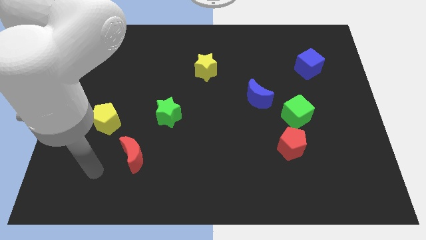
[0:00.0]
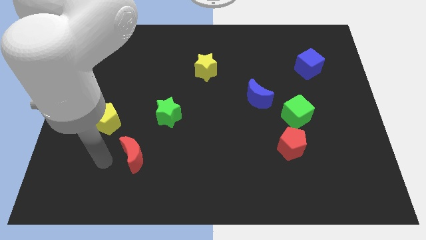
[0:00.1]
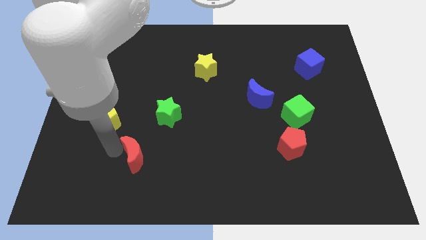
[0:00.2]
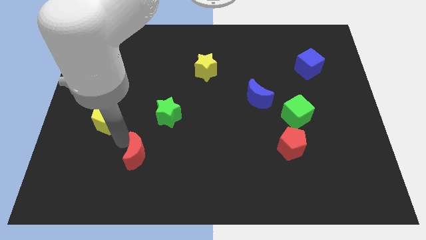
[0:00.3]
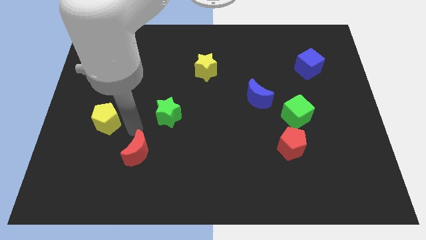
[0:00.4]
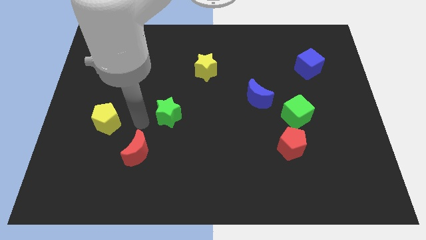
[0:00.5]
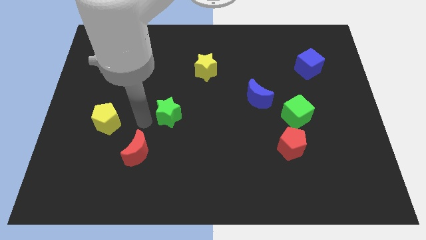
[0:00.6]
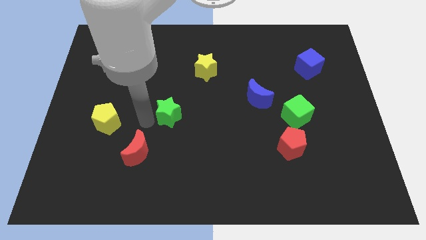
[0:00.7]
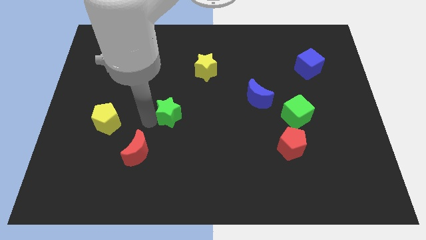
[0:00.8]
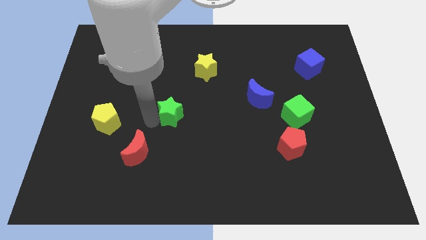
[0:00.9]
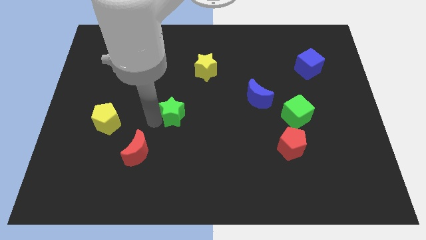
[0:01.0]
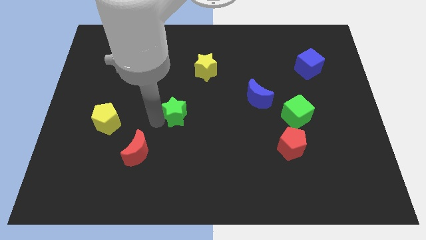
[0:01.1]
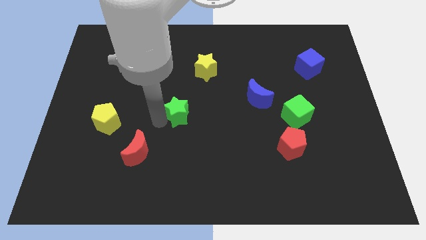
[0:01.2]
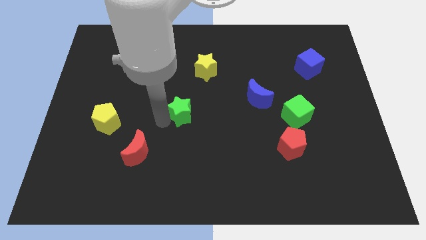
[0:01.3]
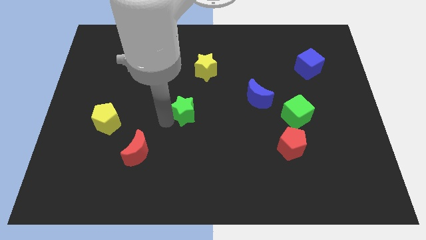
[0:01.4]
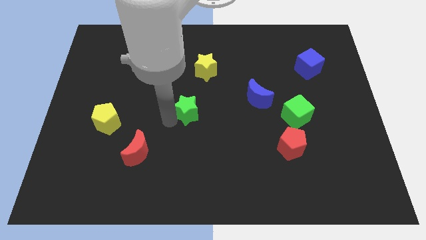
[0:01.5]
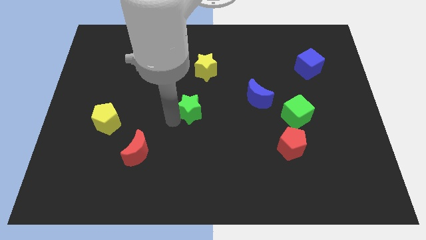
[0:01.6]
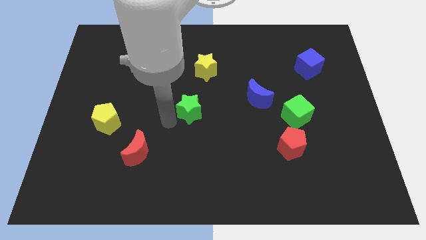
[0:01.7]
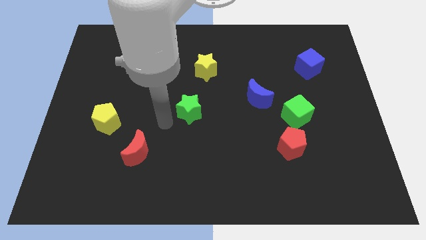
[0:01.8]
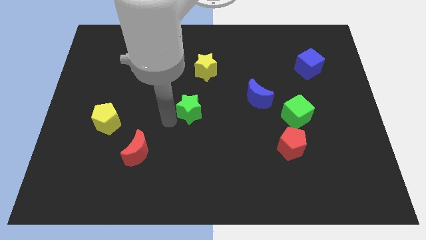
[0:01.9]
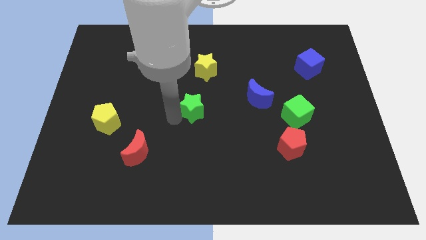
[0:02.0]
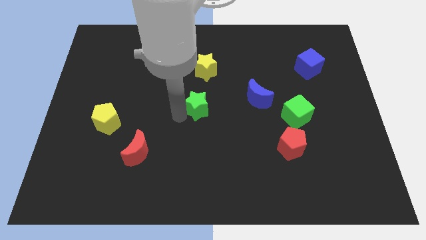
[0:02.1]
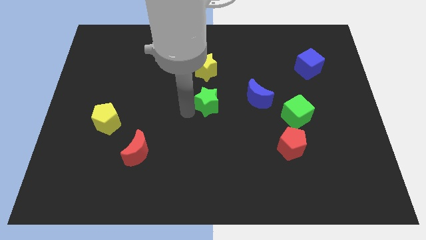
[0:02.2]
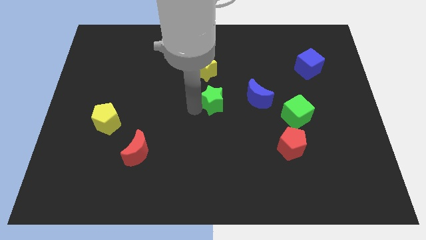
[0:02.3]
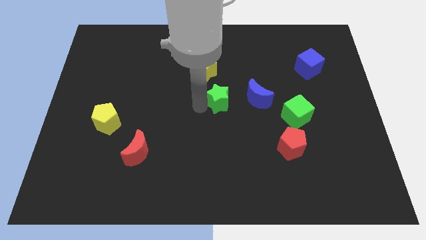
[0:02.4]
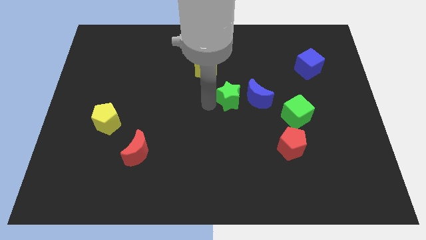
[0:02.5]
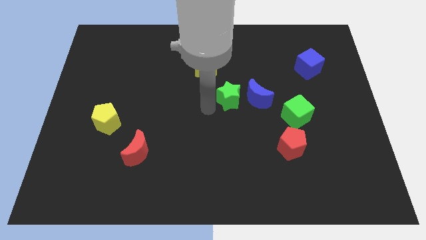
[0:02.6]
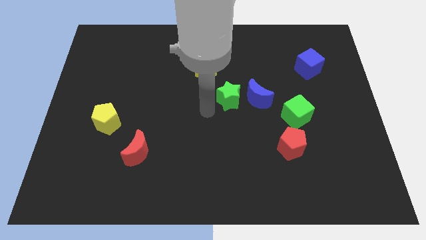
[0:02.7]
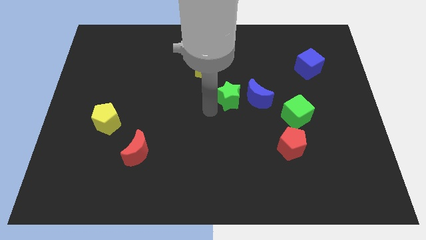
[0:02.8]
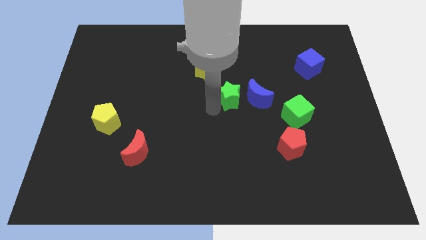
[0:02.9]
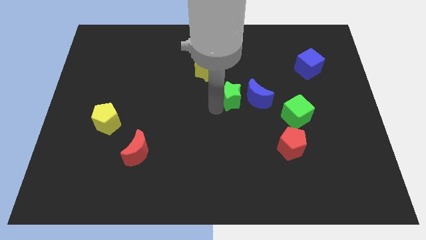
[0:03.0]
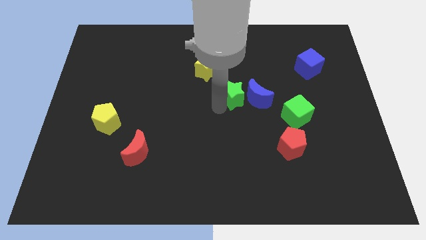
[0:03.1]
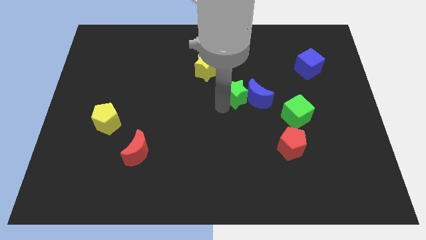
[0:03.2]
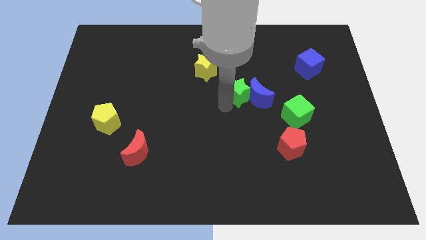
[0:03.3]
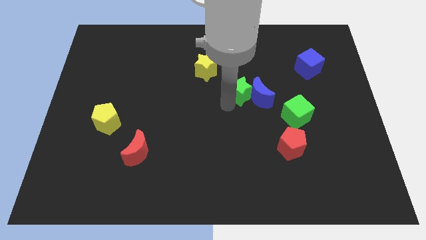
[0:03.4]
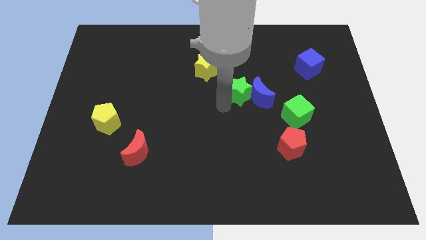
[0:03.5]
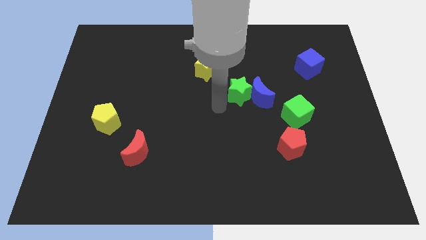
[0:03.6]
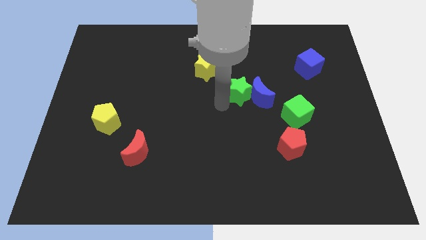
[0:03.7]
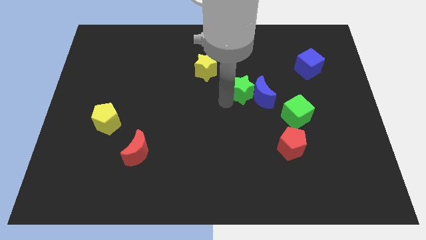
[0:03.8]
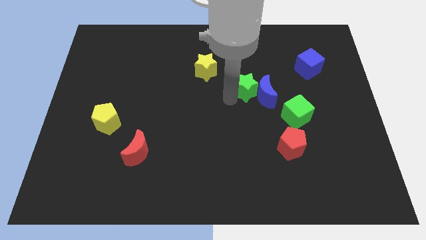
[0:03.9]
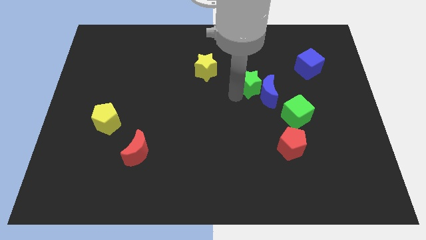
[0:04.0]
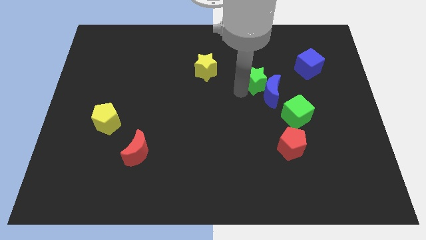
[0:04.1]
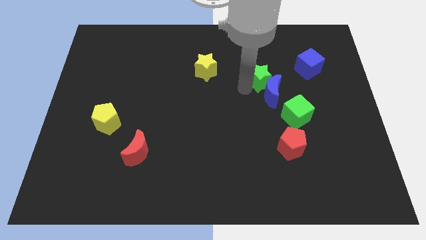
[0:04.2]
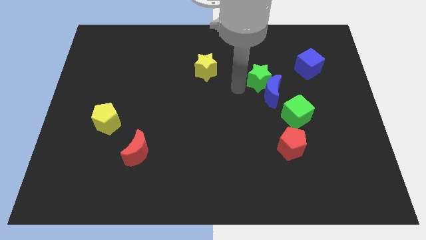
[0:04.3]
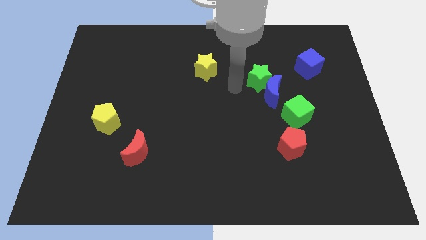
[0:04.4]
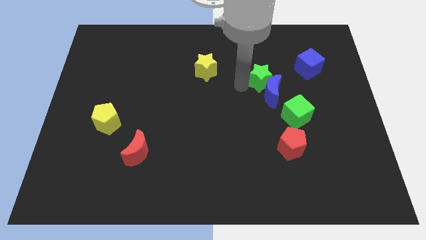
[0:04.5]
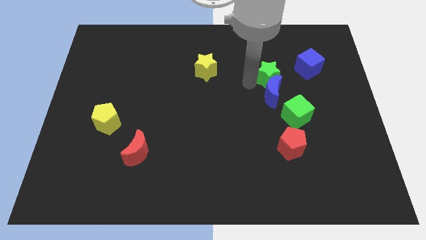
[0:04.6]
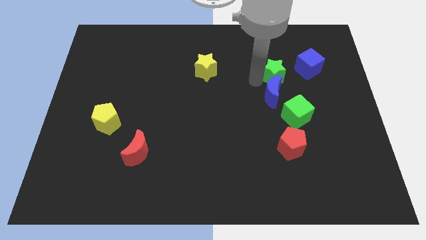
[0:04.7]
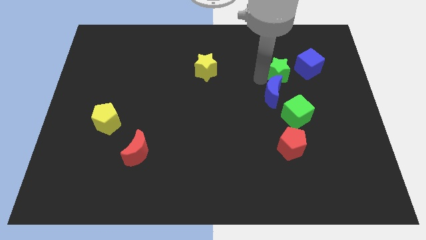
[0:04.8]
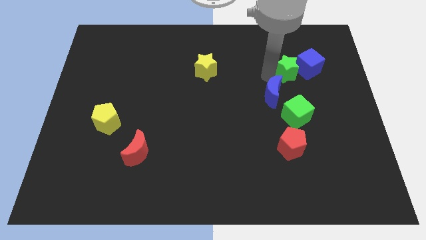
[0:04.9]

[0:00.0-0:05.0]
move the green star towards the blue cube

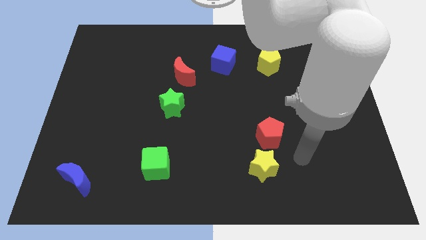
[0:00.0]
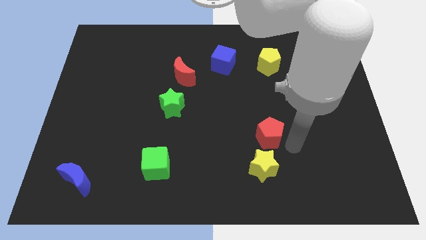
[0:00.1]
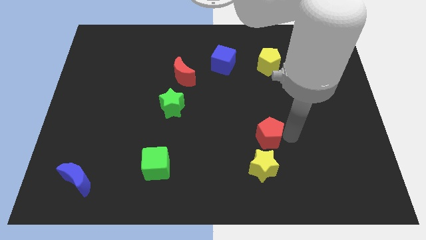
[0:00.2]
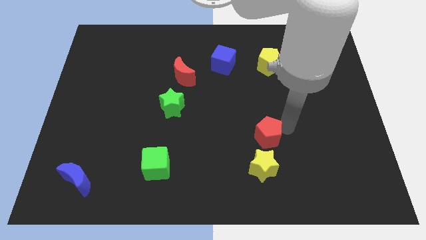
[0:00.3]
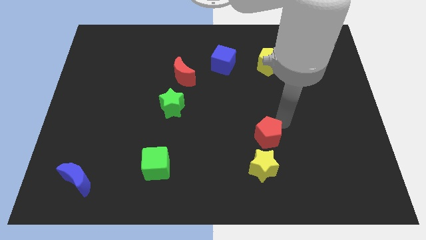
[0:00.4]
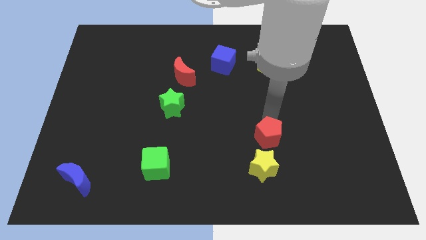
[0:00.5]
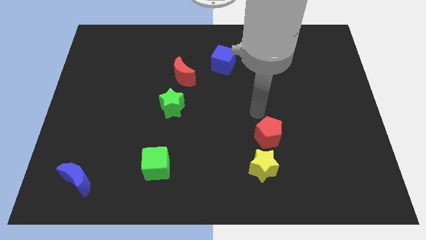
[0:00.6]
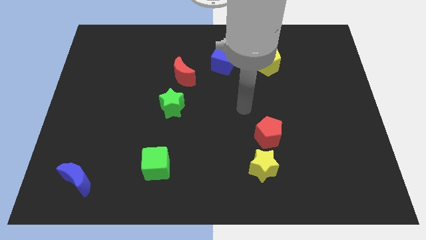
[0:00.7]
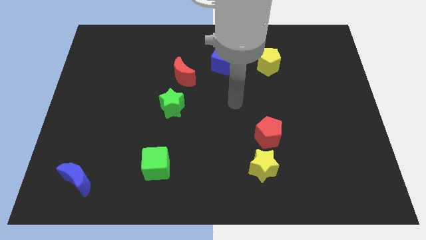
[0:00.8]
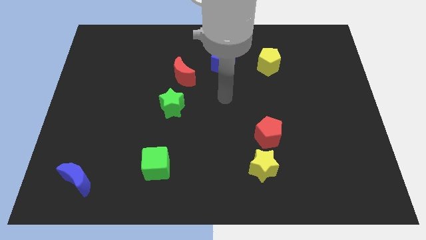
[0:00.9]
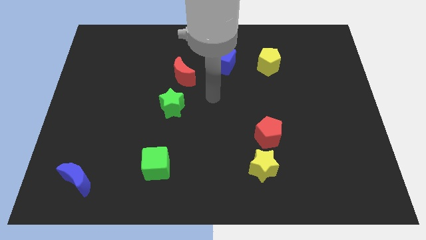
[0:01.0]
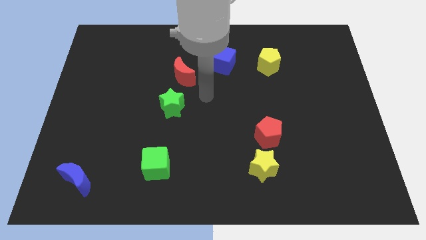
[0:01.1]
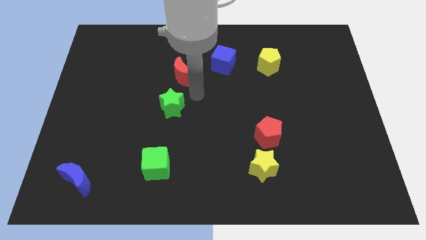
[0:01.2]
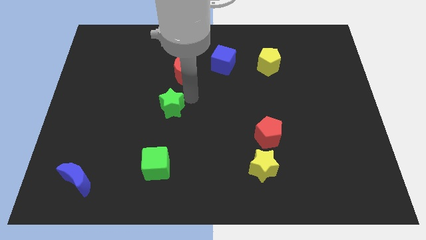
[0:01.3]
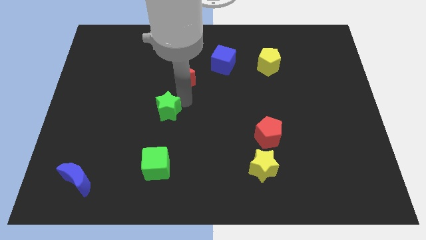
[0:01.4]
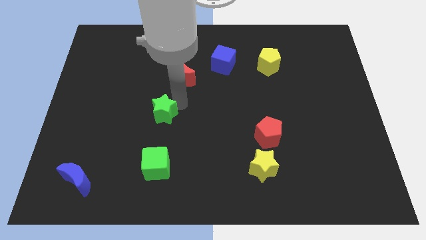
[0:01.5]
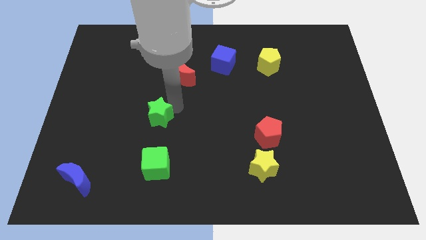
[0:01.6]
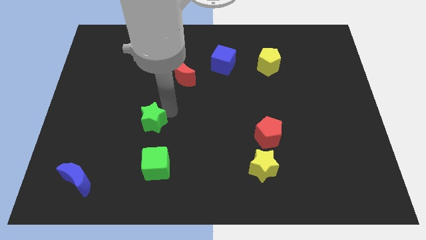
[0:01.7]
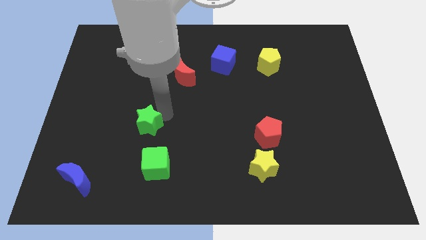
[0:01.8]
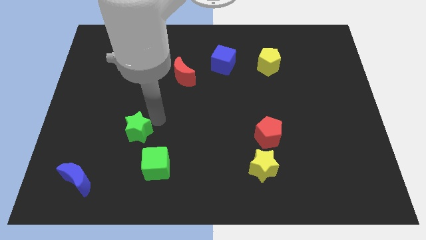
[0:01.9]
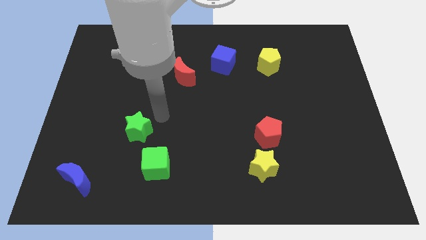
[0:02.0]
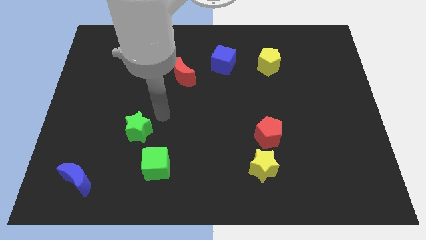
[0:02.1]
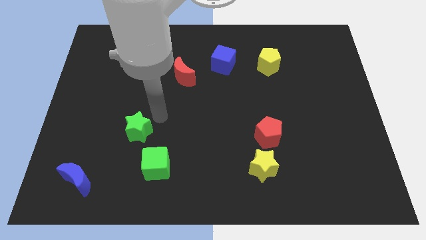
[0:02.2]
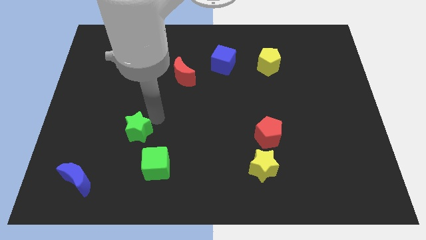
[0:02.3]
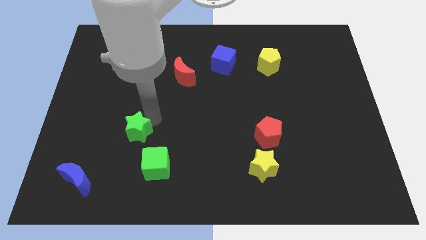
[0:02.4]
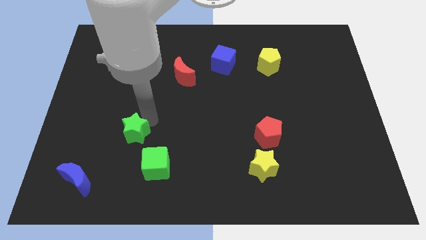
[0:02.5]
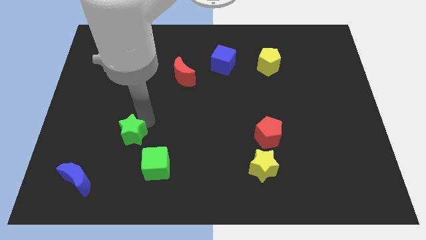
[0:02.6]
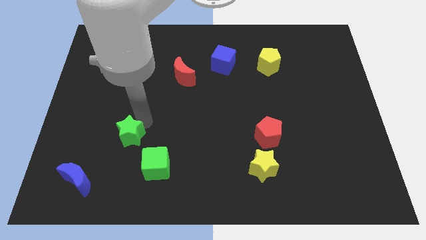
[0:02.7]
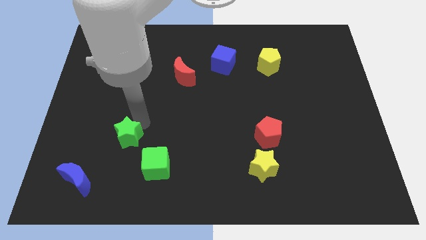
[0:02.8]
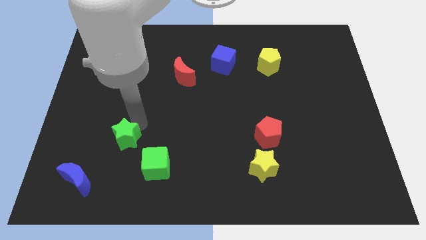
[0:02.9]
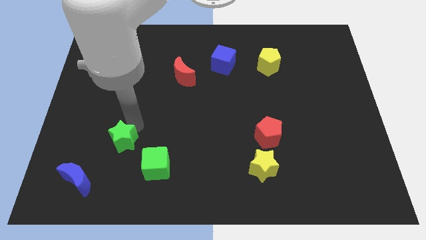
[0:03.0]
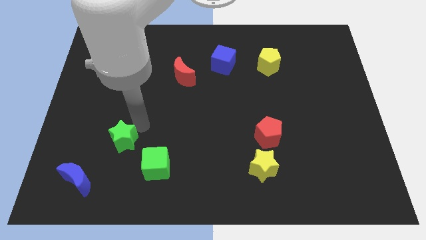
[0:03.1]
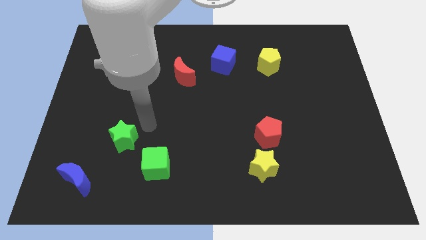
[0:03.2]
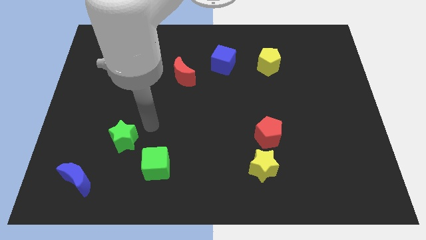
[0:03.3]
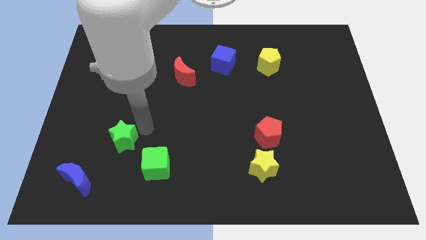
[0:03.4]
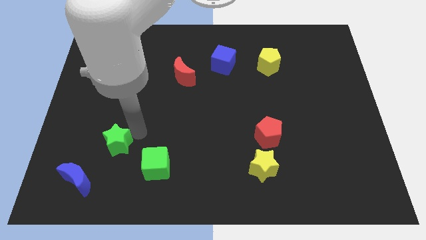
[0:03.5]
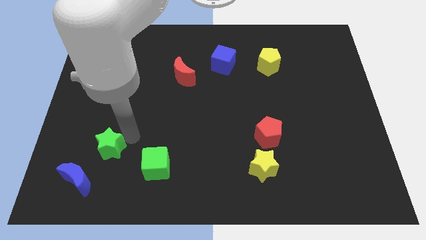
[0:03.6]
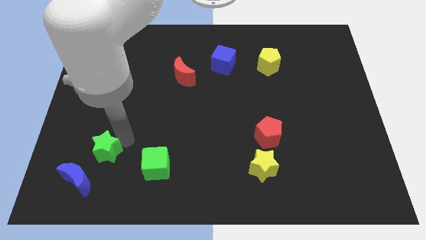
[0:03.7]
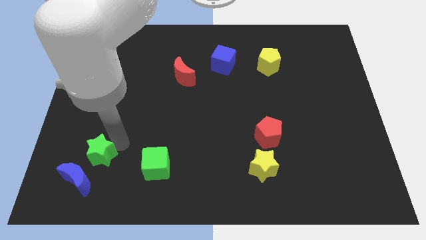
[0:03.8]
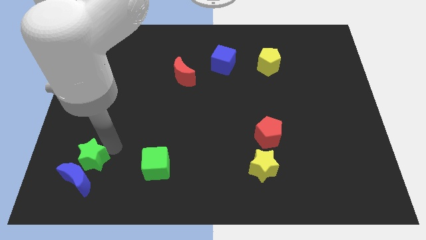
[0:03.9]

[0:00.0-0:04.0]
push the green star towards the blue moon
